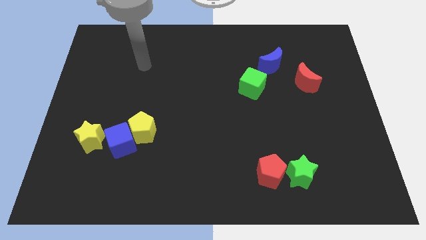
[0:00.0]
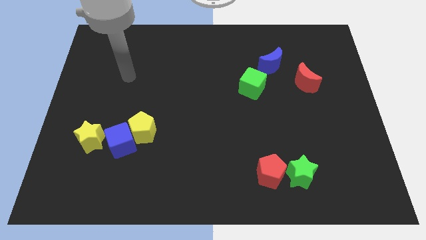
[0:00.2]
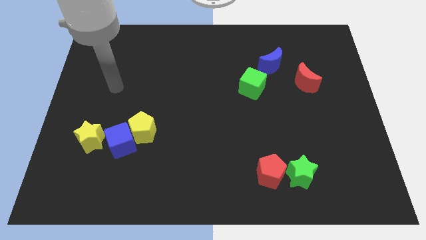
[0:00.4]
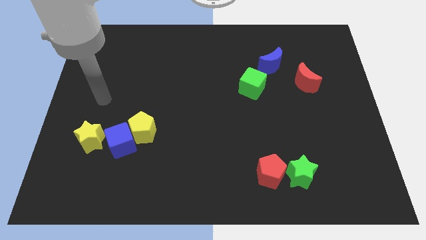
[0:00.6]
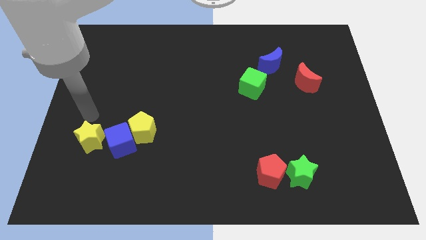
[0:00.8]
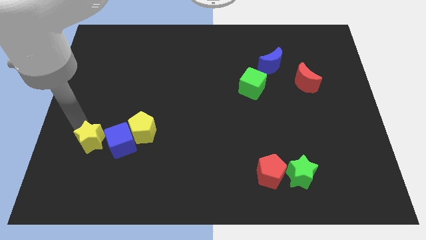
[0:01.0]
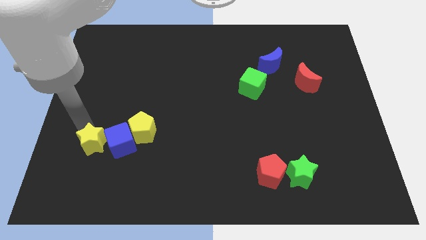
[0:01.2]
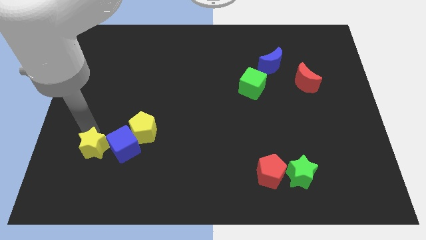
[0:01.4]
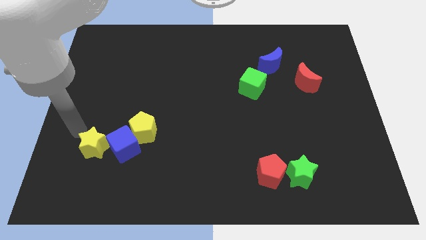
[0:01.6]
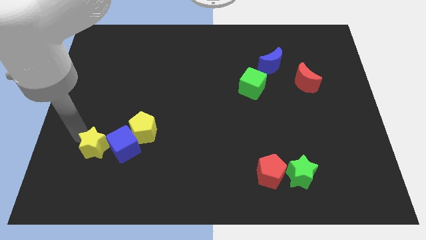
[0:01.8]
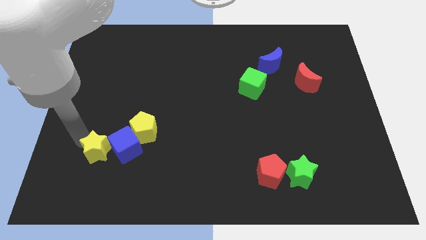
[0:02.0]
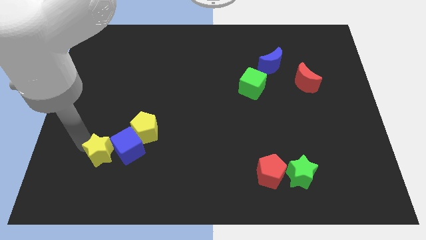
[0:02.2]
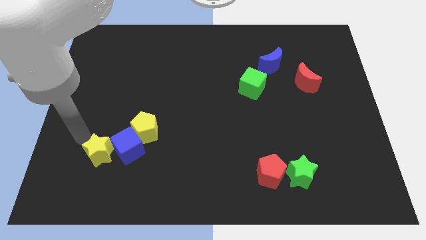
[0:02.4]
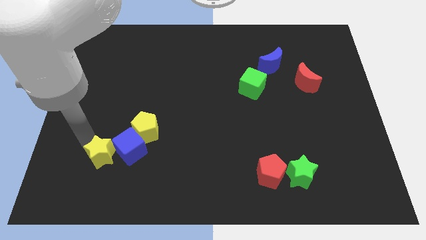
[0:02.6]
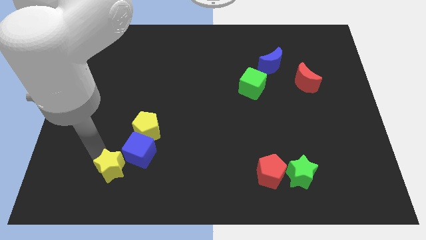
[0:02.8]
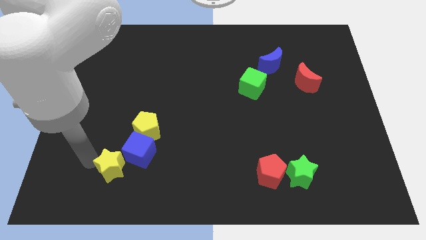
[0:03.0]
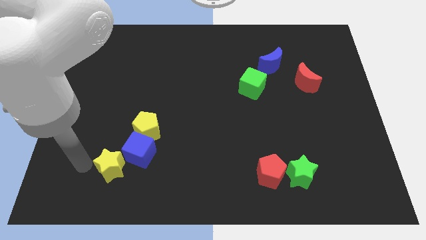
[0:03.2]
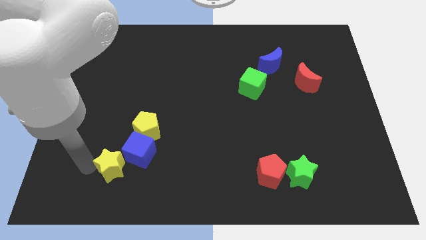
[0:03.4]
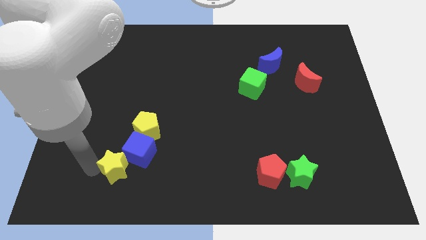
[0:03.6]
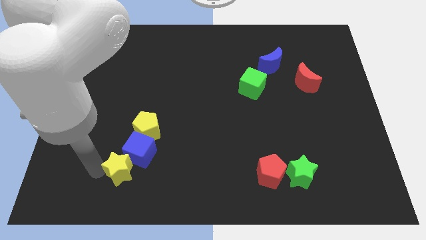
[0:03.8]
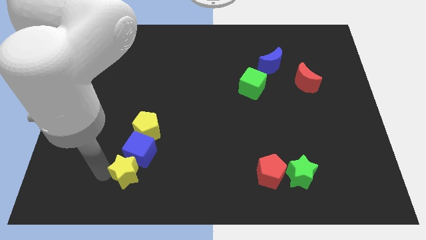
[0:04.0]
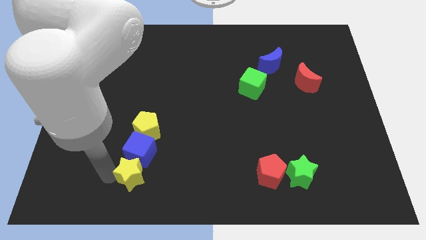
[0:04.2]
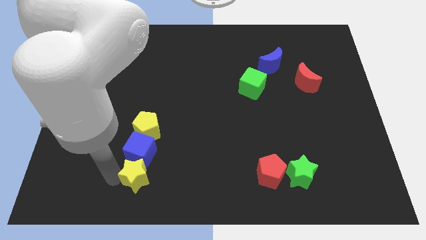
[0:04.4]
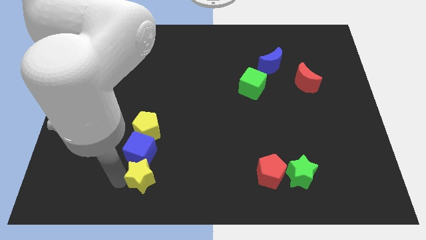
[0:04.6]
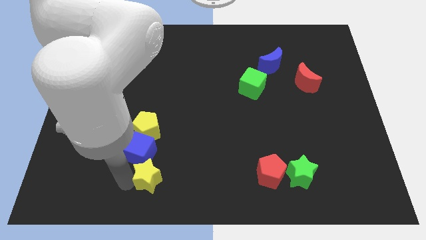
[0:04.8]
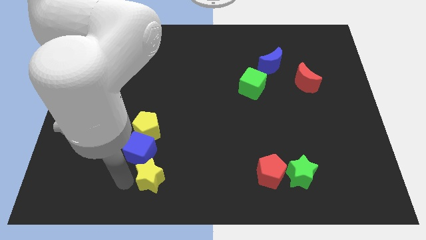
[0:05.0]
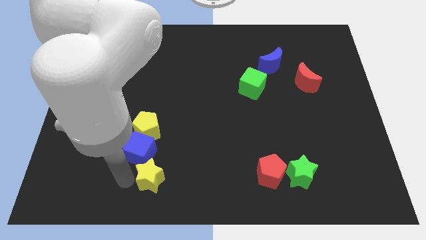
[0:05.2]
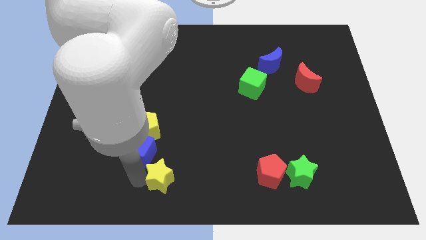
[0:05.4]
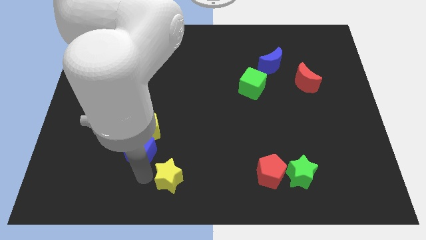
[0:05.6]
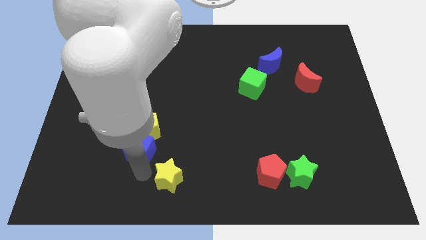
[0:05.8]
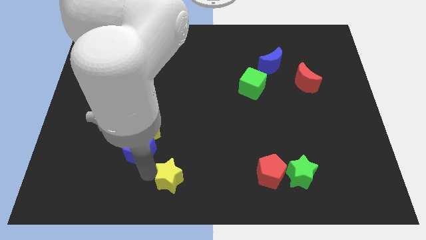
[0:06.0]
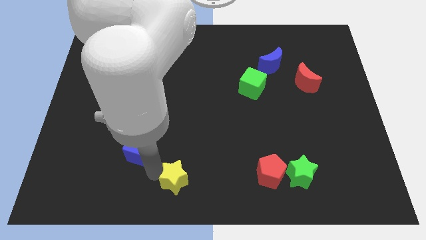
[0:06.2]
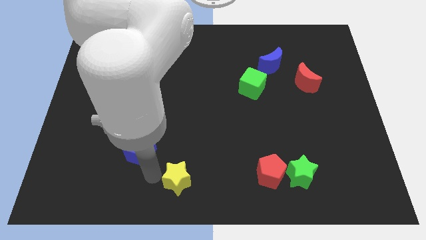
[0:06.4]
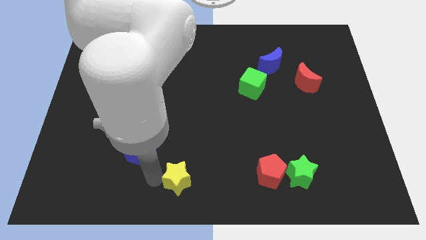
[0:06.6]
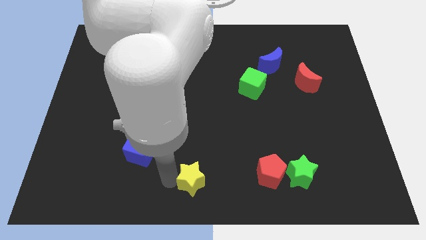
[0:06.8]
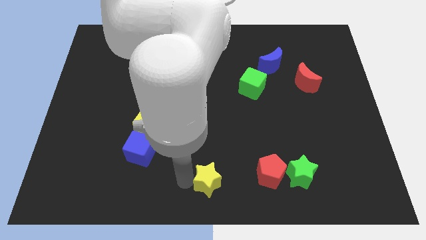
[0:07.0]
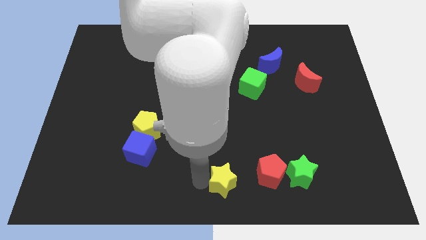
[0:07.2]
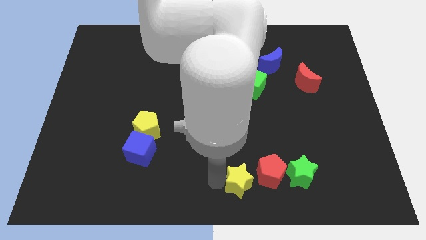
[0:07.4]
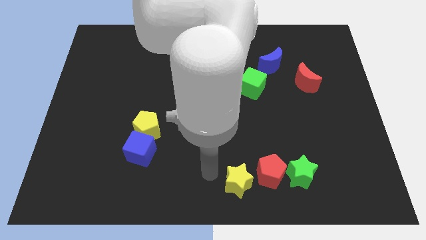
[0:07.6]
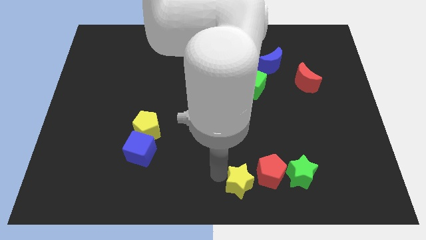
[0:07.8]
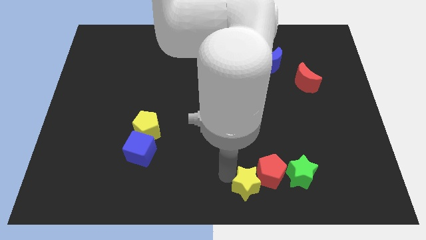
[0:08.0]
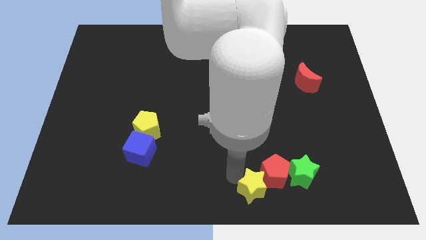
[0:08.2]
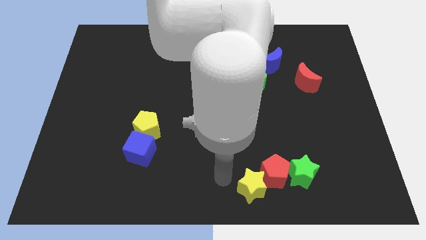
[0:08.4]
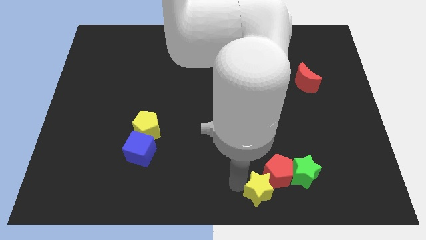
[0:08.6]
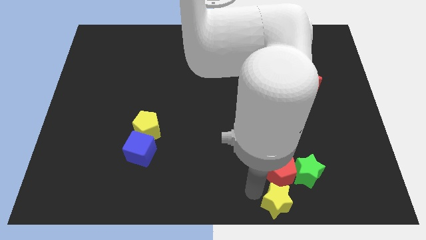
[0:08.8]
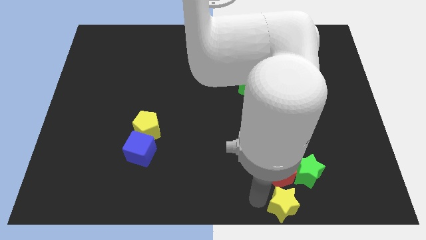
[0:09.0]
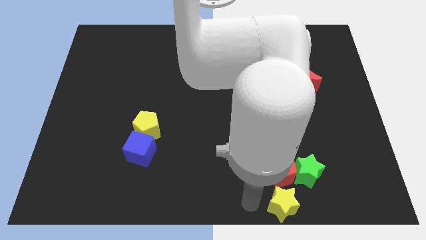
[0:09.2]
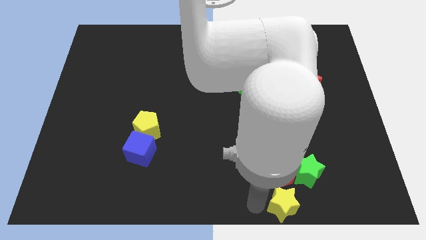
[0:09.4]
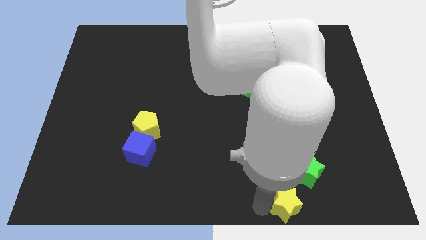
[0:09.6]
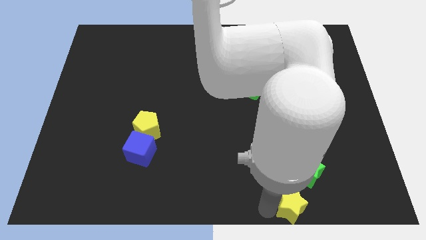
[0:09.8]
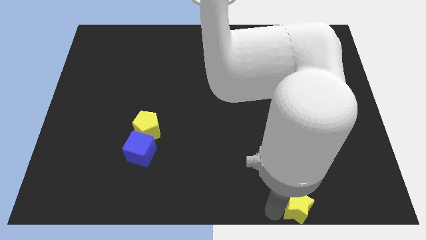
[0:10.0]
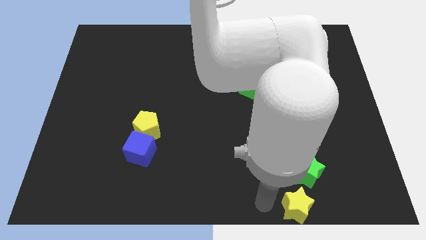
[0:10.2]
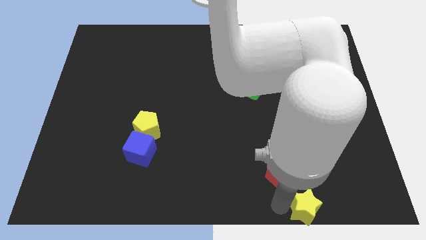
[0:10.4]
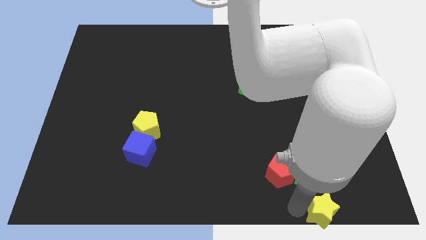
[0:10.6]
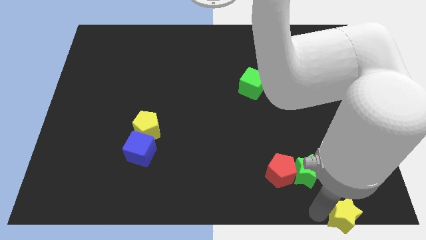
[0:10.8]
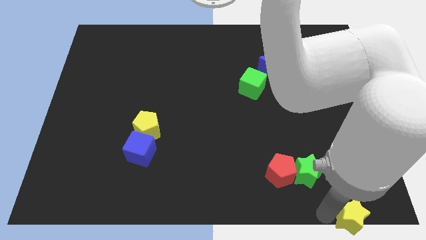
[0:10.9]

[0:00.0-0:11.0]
move the yellow star to the lower right corner

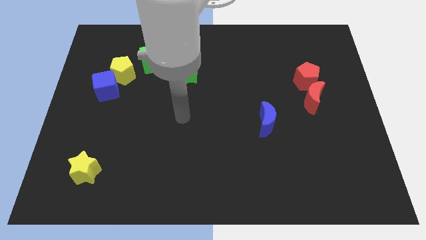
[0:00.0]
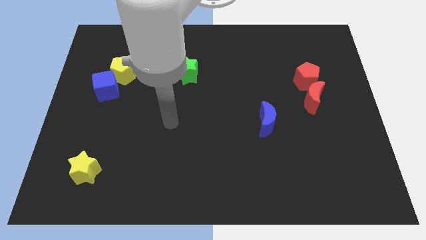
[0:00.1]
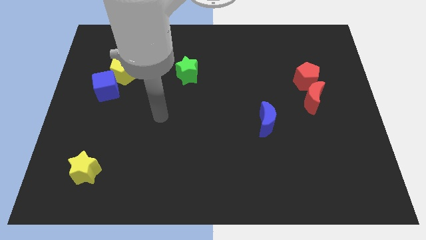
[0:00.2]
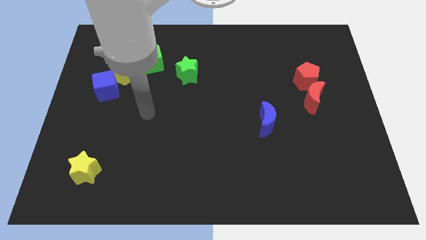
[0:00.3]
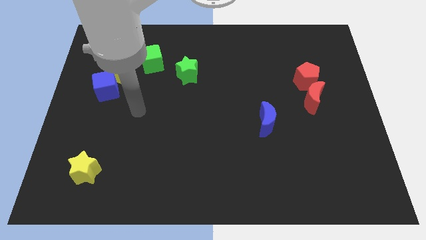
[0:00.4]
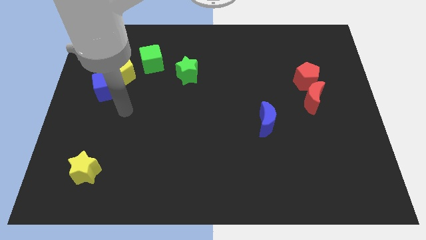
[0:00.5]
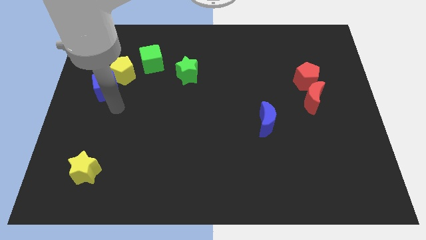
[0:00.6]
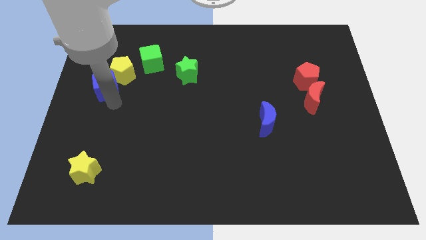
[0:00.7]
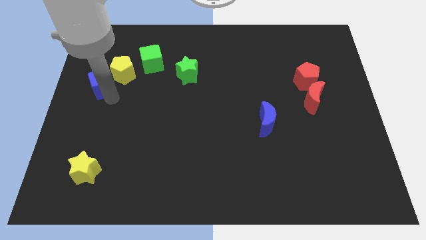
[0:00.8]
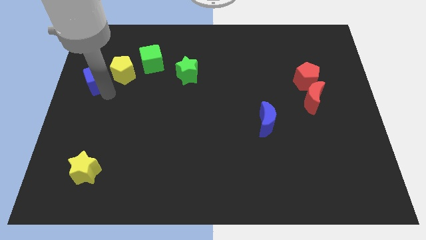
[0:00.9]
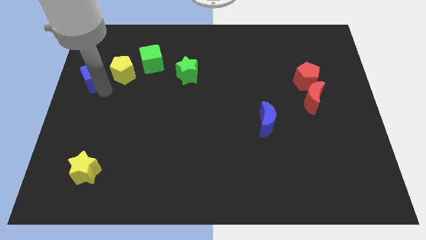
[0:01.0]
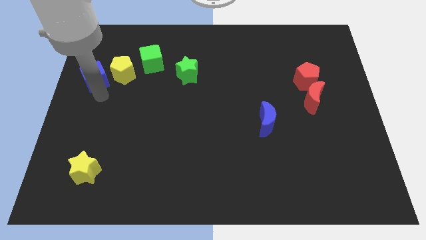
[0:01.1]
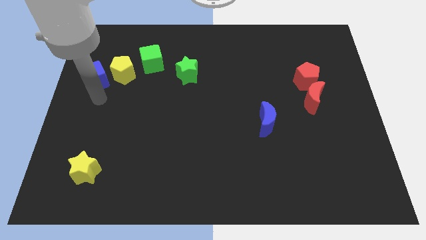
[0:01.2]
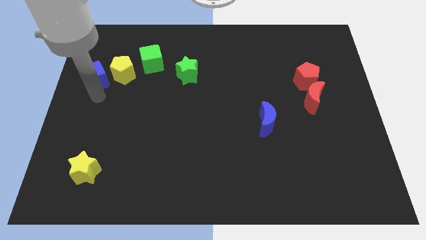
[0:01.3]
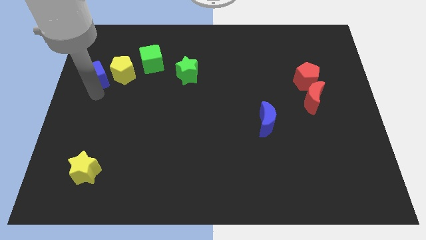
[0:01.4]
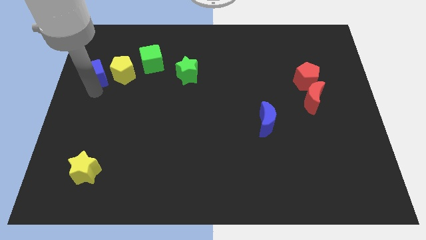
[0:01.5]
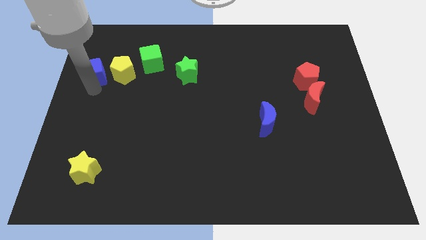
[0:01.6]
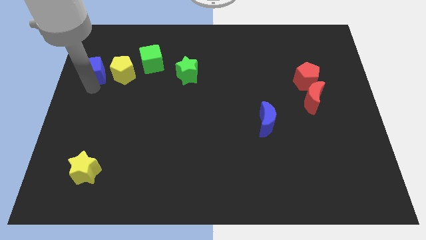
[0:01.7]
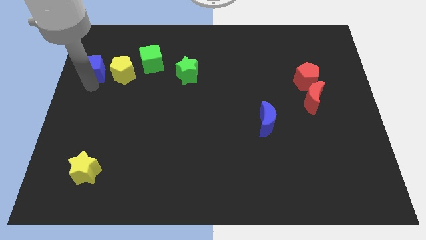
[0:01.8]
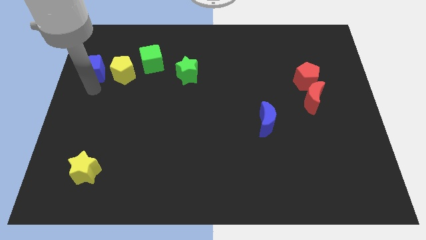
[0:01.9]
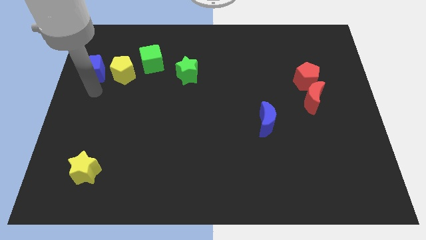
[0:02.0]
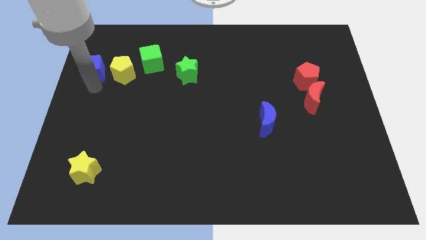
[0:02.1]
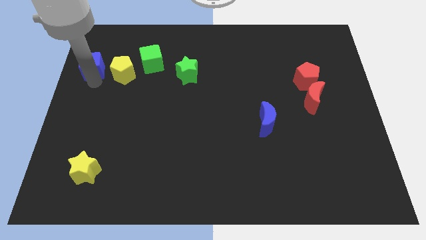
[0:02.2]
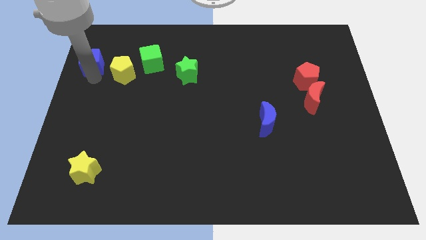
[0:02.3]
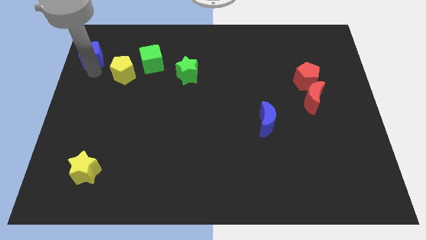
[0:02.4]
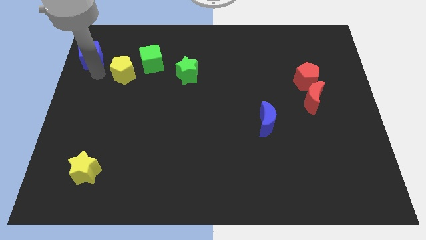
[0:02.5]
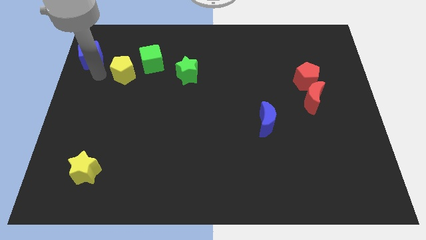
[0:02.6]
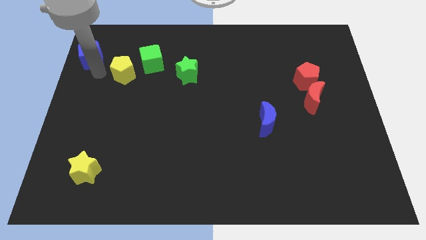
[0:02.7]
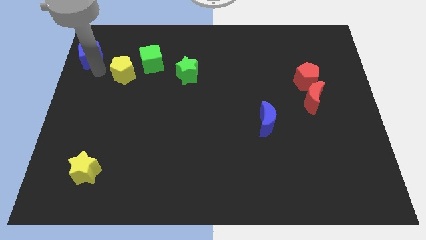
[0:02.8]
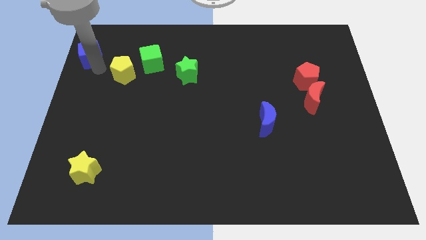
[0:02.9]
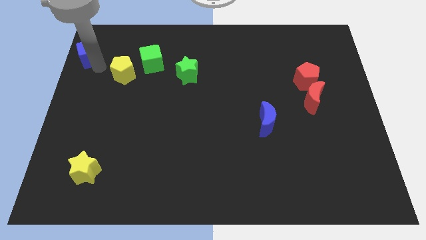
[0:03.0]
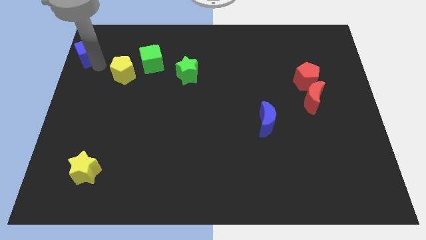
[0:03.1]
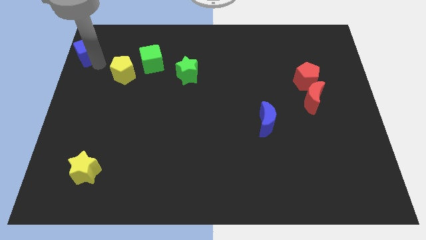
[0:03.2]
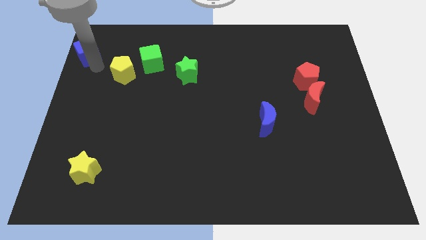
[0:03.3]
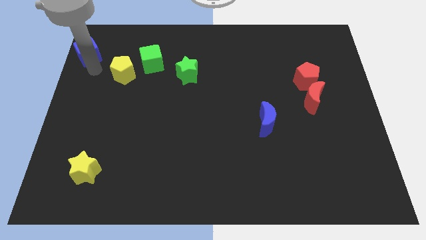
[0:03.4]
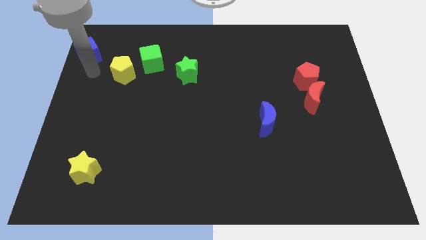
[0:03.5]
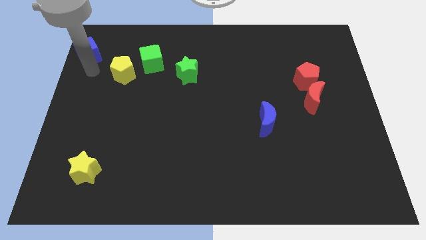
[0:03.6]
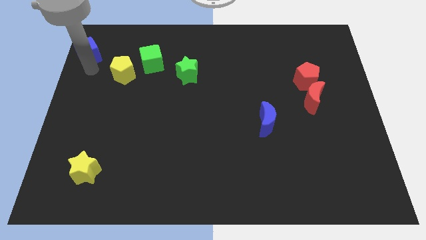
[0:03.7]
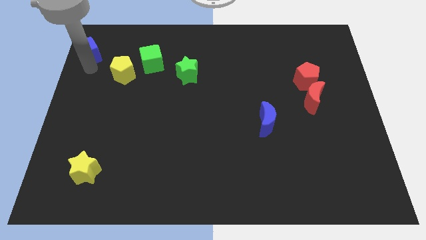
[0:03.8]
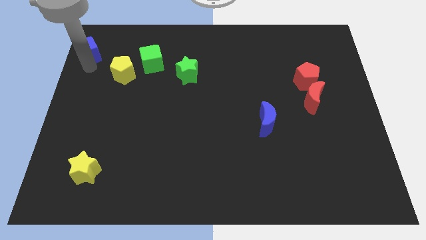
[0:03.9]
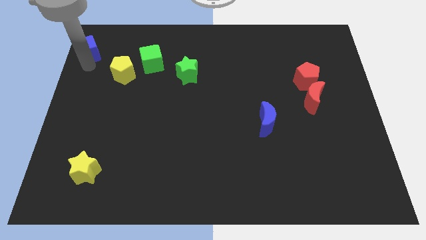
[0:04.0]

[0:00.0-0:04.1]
slide the blue cube to the upper left corner
